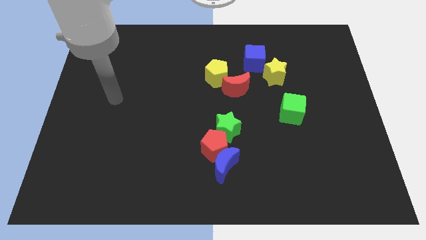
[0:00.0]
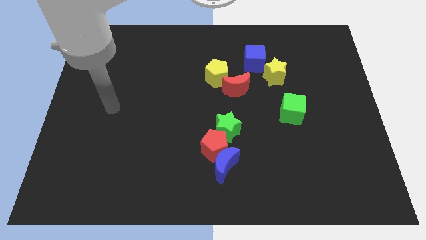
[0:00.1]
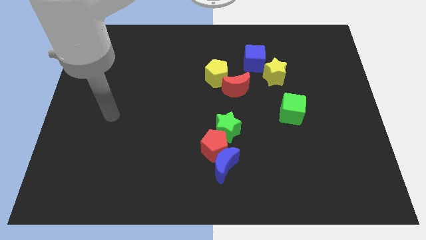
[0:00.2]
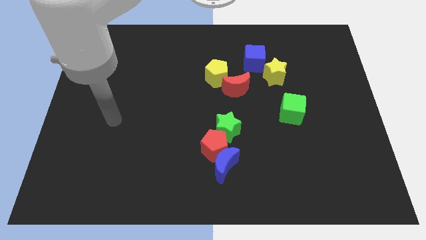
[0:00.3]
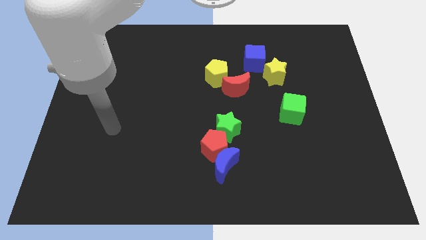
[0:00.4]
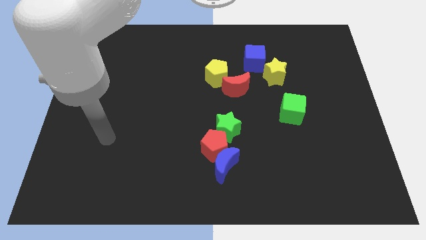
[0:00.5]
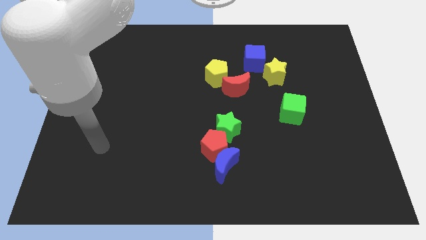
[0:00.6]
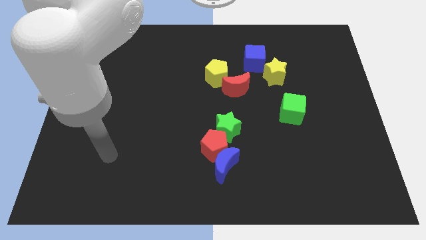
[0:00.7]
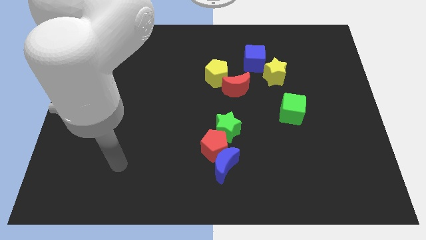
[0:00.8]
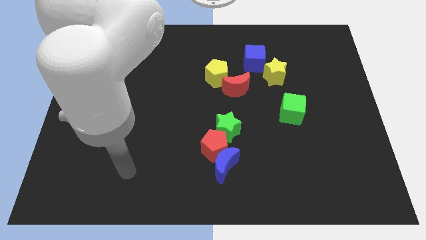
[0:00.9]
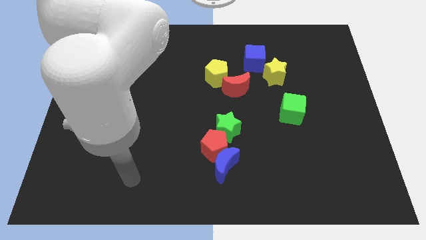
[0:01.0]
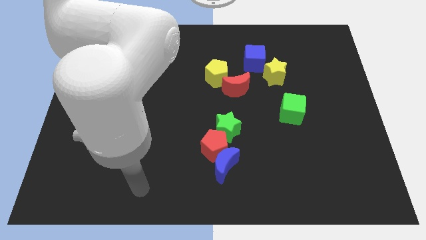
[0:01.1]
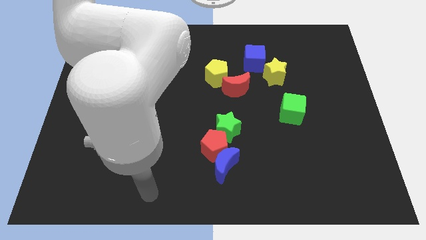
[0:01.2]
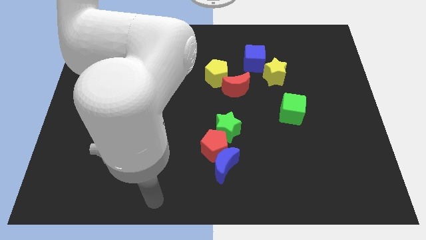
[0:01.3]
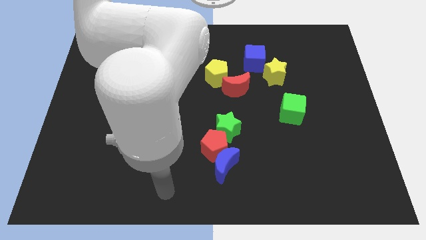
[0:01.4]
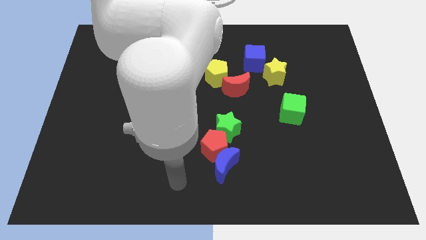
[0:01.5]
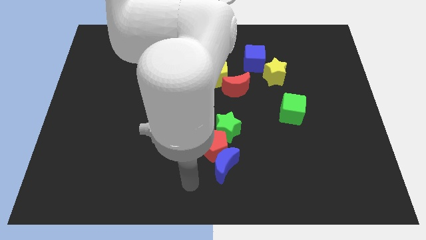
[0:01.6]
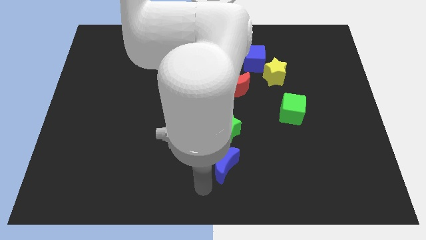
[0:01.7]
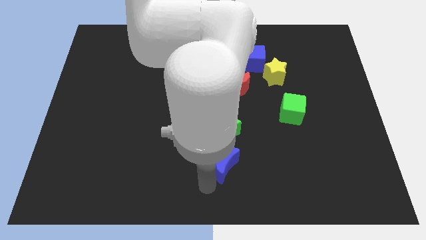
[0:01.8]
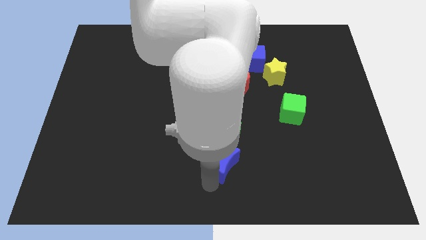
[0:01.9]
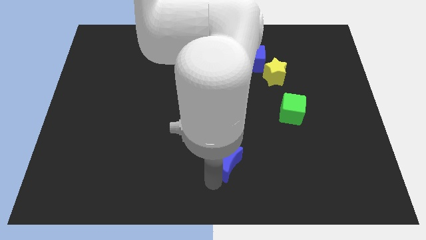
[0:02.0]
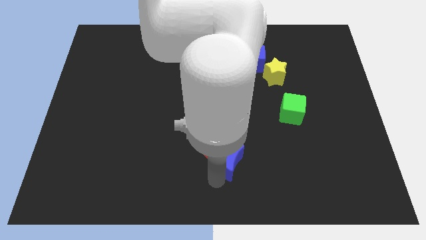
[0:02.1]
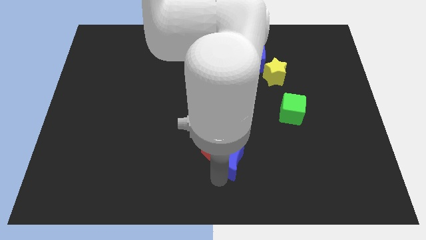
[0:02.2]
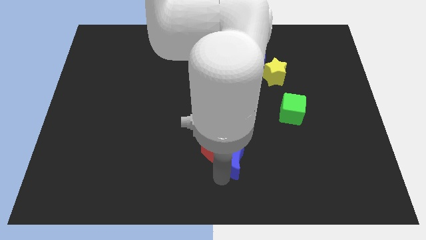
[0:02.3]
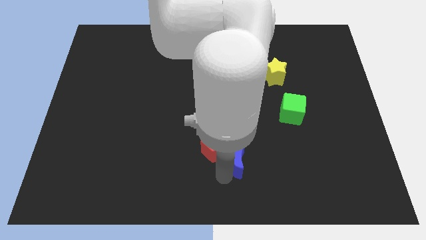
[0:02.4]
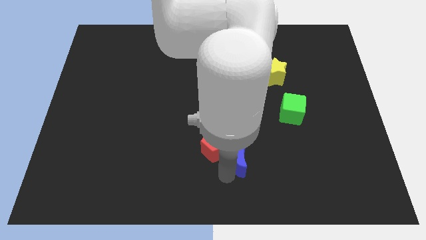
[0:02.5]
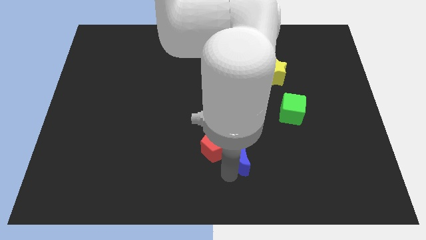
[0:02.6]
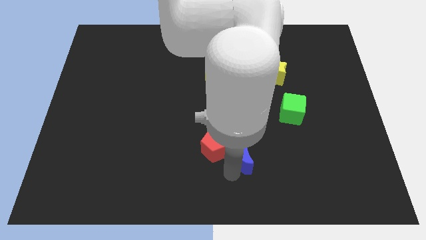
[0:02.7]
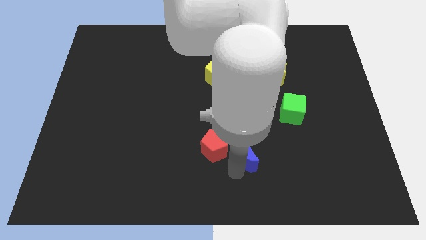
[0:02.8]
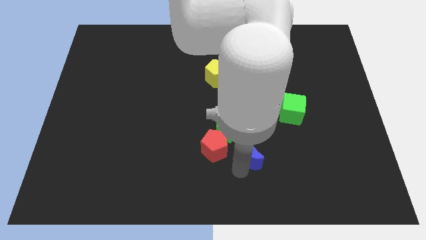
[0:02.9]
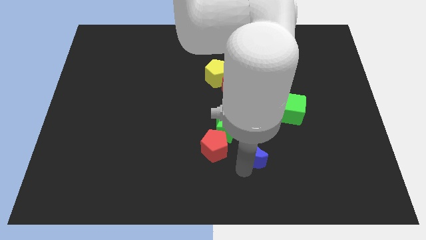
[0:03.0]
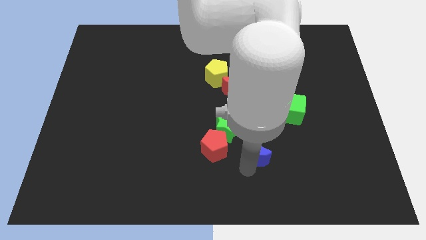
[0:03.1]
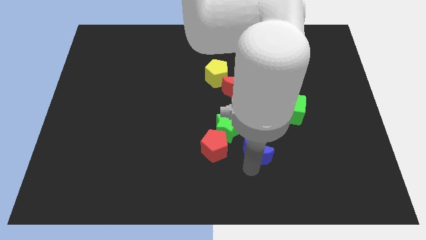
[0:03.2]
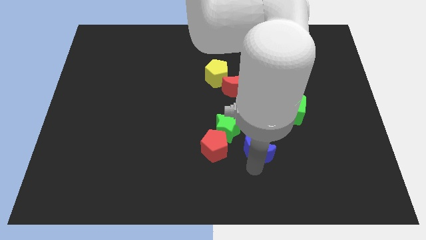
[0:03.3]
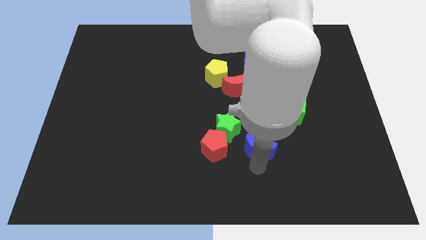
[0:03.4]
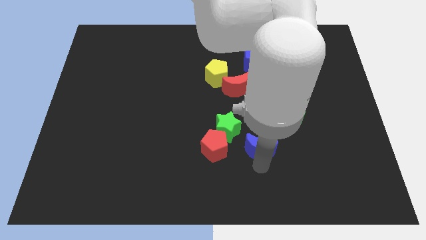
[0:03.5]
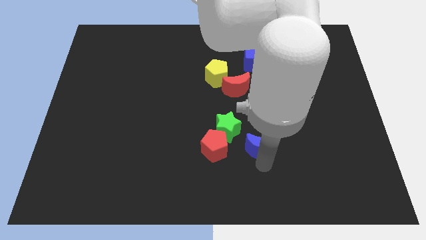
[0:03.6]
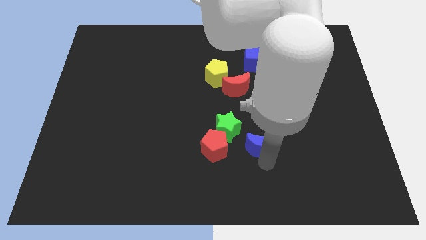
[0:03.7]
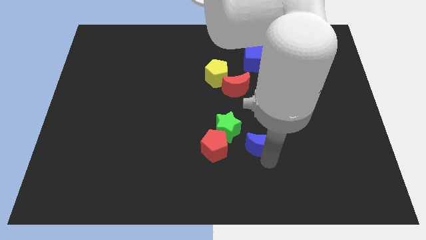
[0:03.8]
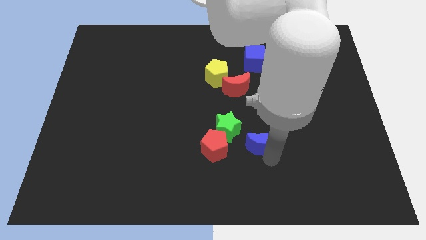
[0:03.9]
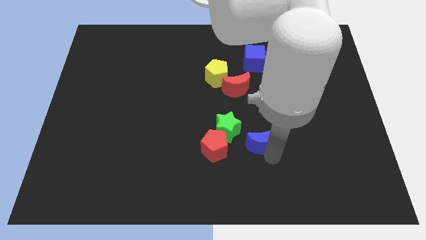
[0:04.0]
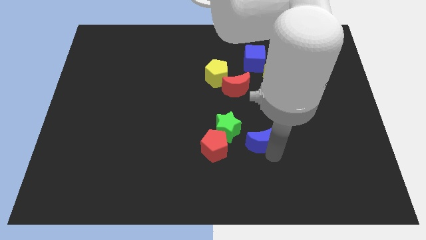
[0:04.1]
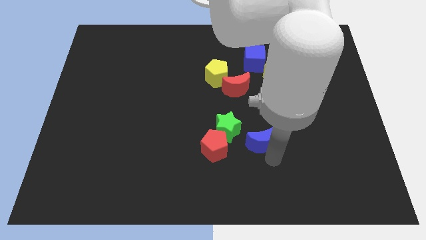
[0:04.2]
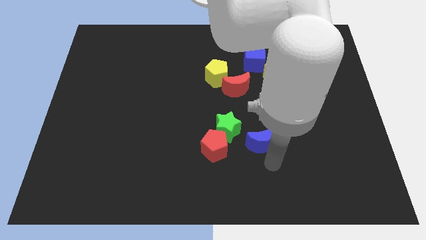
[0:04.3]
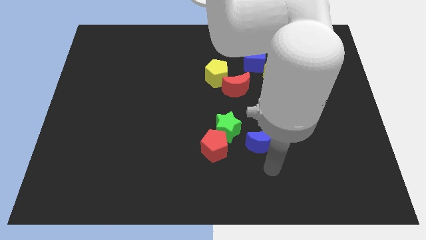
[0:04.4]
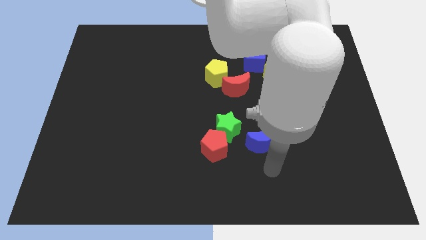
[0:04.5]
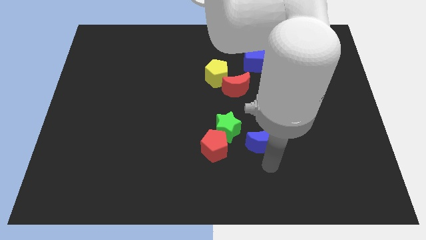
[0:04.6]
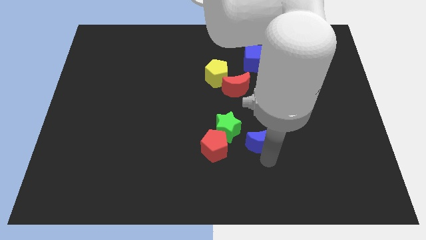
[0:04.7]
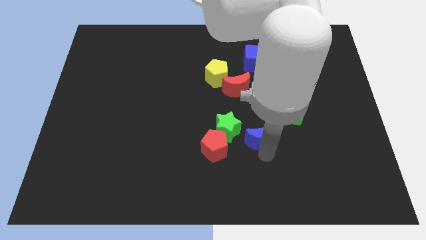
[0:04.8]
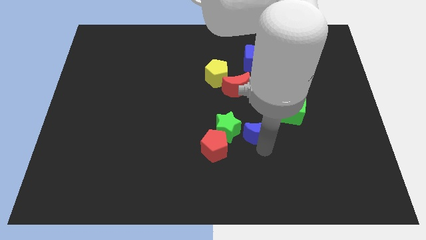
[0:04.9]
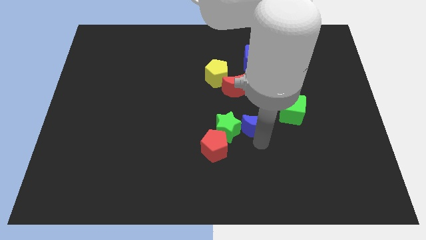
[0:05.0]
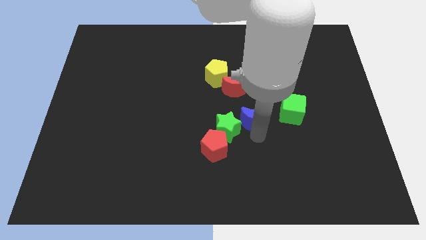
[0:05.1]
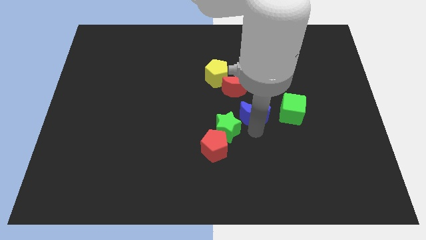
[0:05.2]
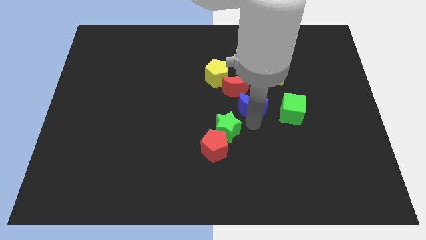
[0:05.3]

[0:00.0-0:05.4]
slide the blue moon to the bottom of the blue cube
